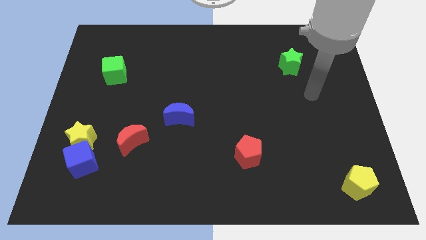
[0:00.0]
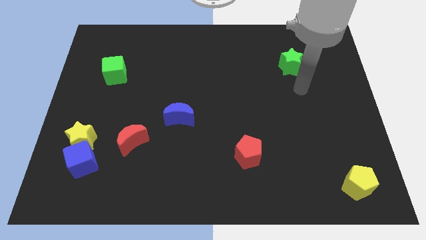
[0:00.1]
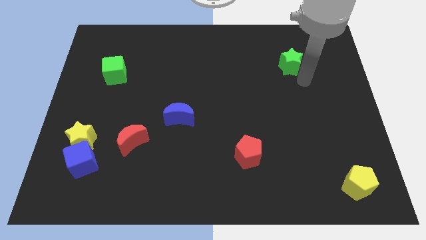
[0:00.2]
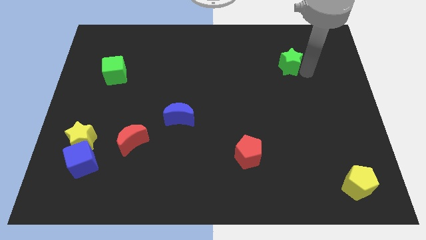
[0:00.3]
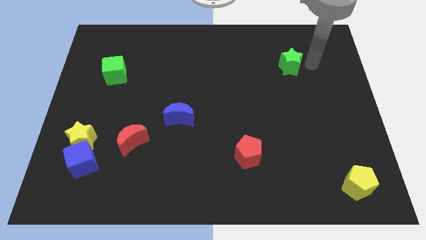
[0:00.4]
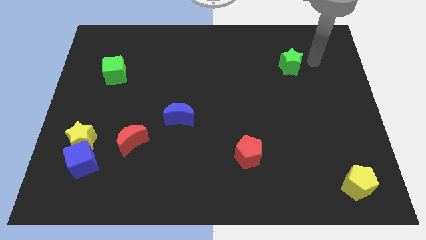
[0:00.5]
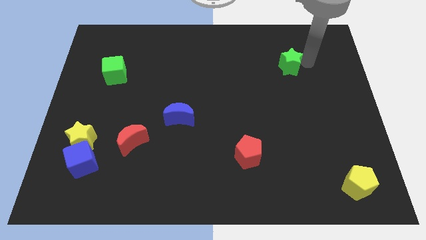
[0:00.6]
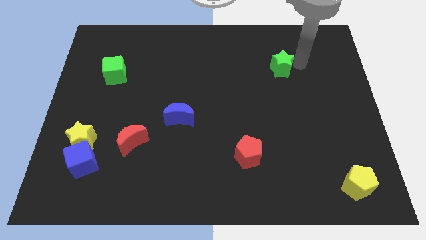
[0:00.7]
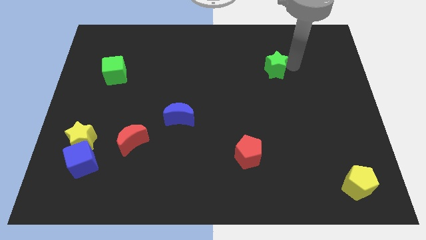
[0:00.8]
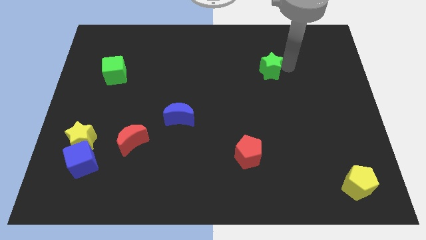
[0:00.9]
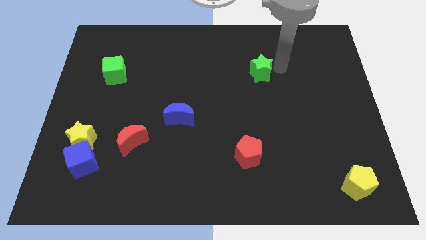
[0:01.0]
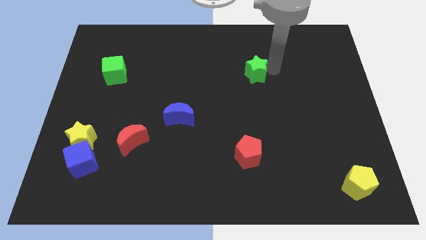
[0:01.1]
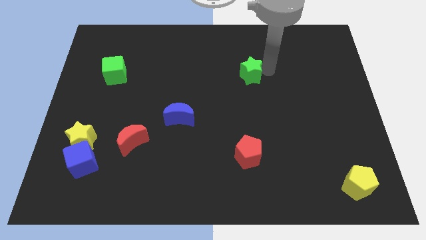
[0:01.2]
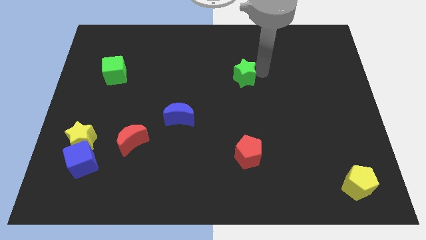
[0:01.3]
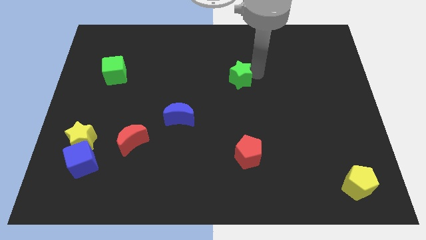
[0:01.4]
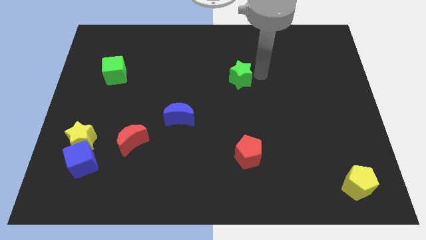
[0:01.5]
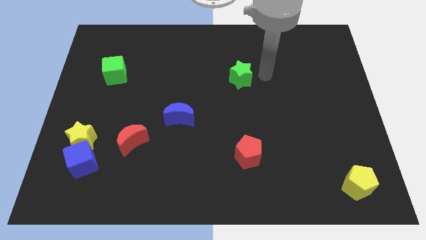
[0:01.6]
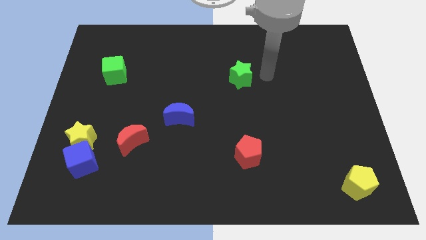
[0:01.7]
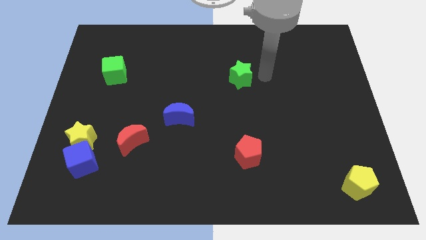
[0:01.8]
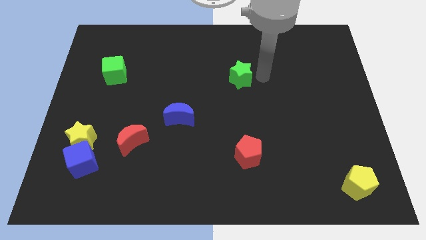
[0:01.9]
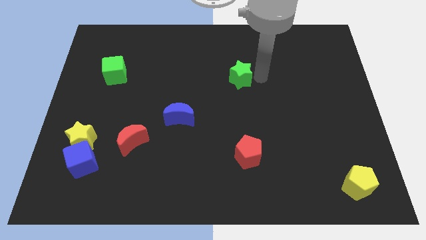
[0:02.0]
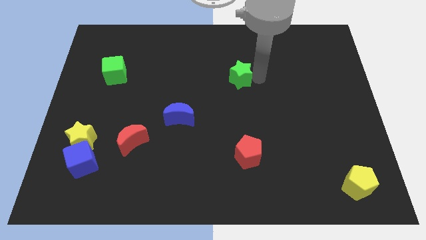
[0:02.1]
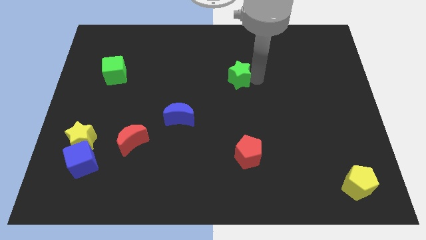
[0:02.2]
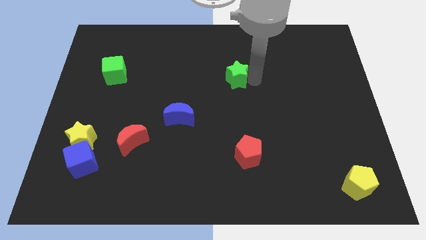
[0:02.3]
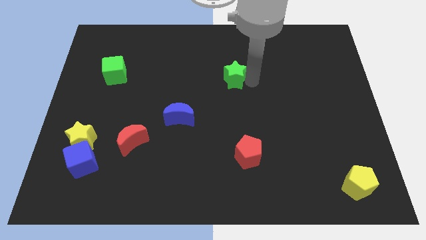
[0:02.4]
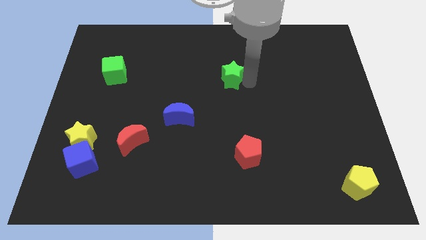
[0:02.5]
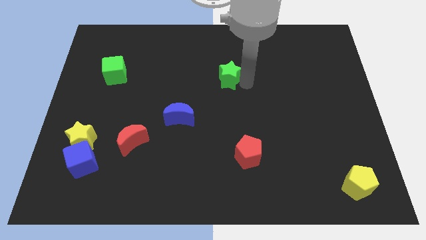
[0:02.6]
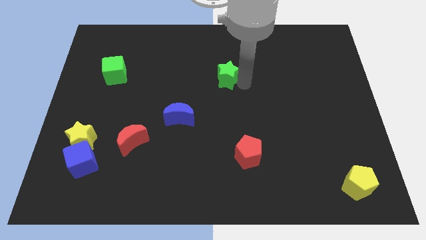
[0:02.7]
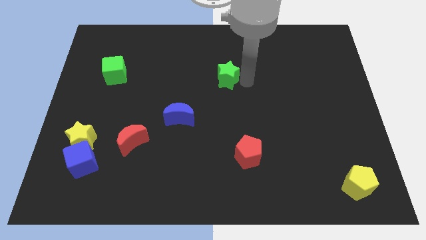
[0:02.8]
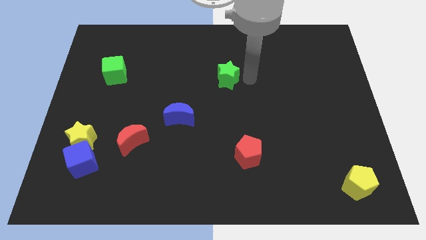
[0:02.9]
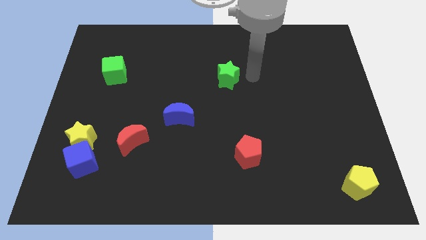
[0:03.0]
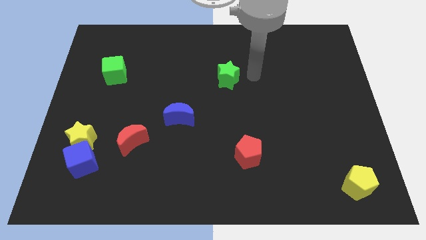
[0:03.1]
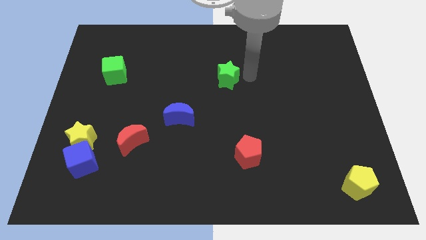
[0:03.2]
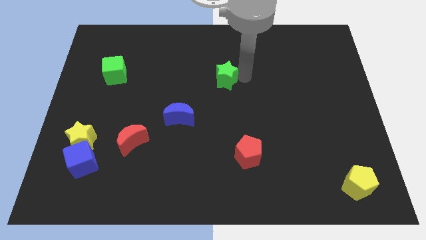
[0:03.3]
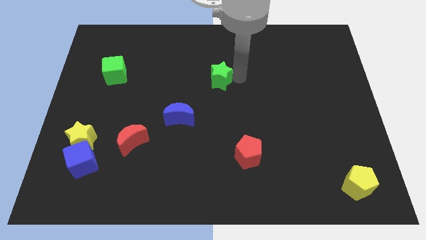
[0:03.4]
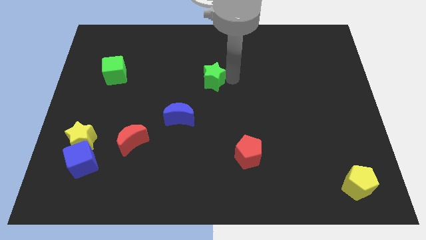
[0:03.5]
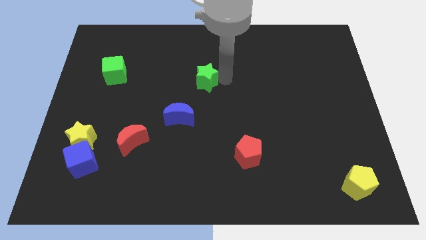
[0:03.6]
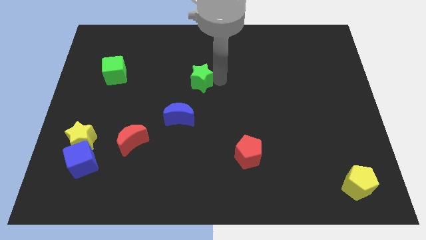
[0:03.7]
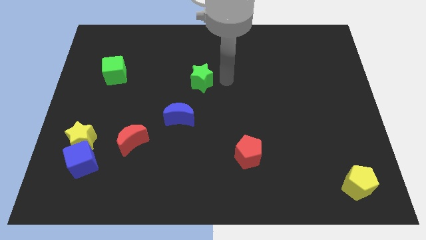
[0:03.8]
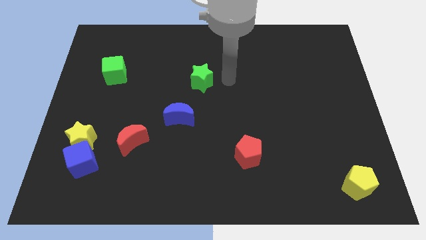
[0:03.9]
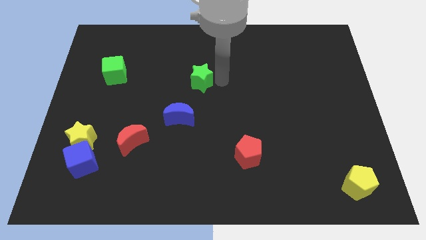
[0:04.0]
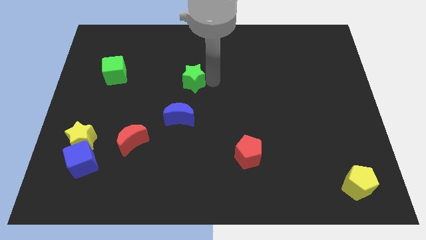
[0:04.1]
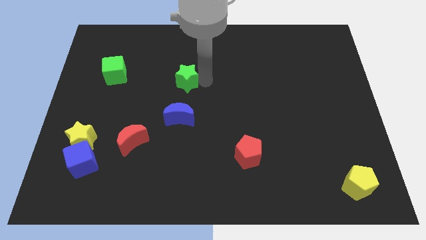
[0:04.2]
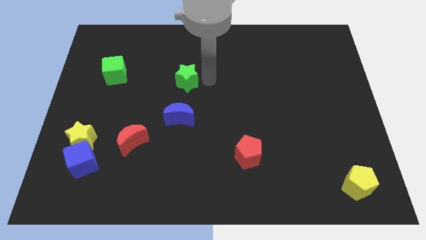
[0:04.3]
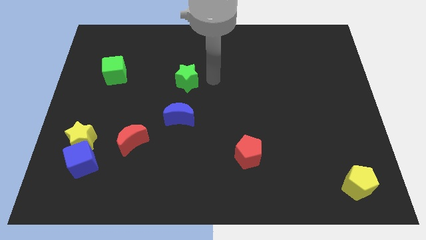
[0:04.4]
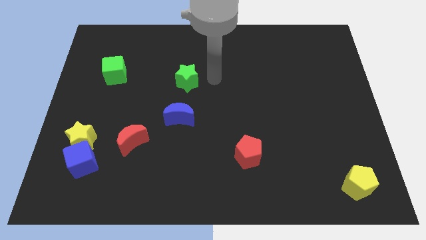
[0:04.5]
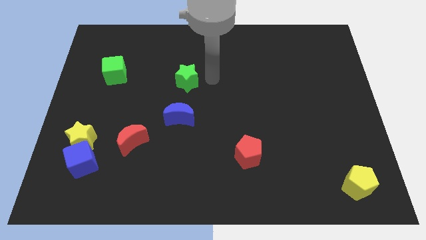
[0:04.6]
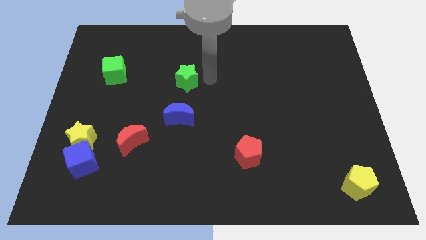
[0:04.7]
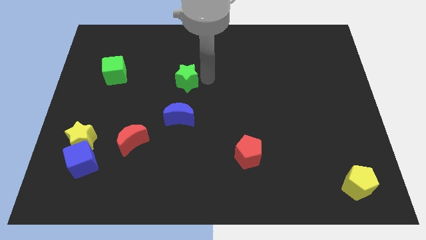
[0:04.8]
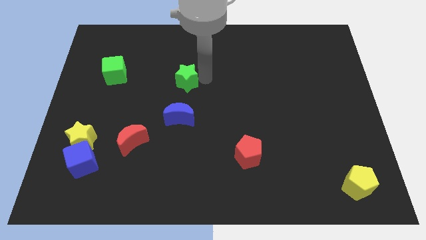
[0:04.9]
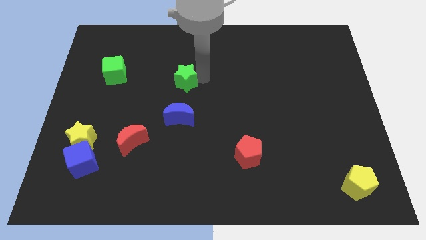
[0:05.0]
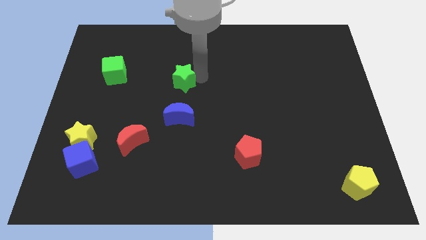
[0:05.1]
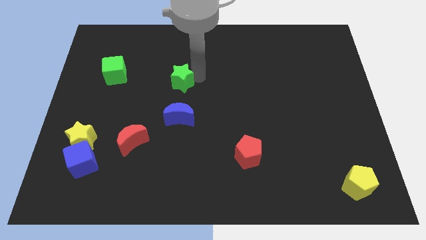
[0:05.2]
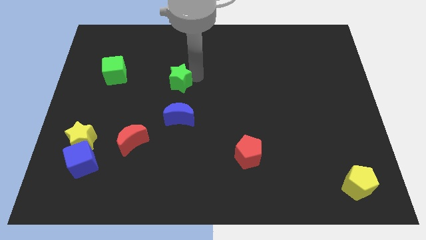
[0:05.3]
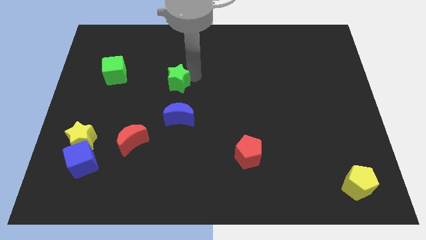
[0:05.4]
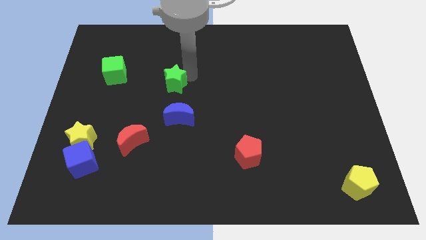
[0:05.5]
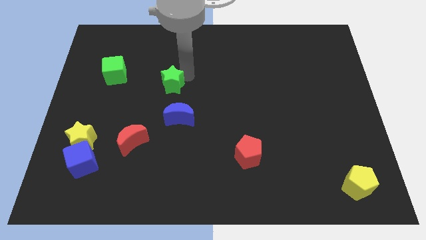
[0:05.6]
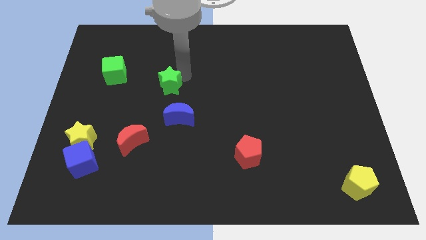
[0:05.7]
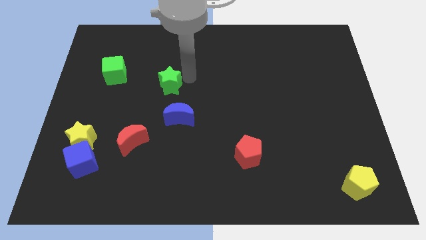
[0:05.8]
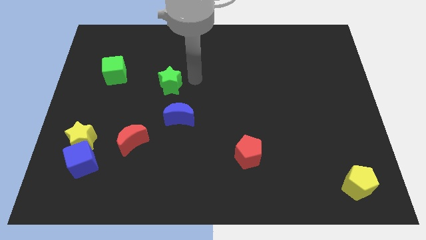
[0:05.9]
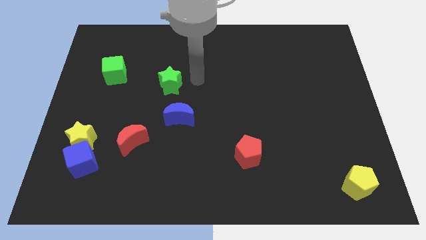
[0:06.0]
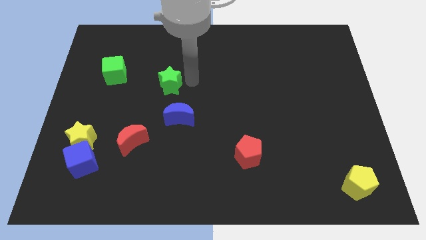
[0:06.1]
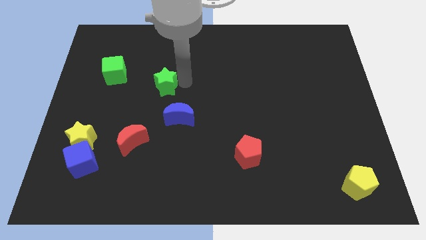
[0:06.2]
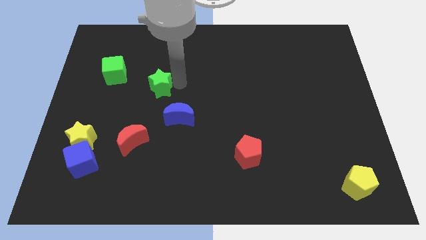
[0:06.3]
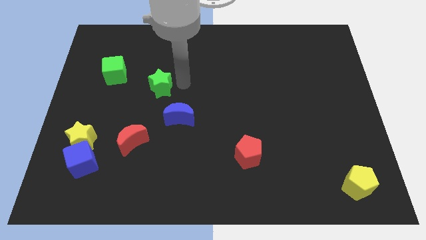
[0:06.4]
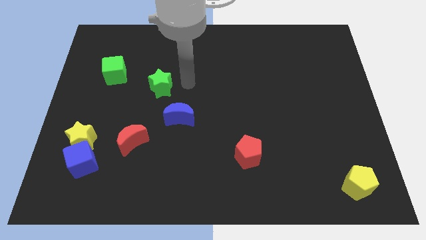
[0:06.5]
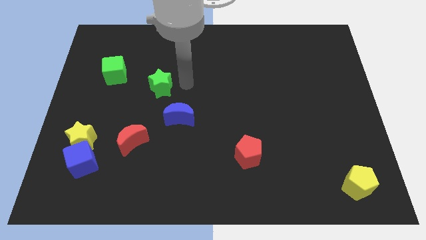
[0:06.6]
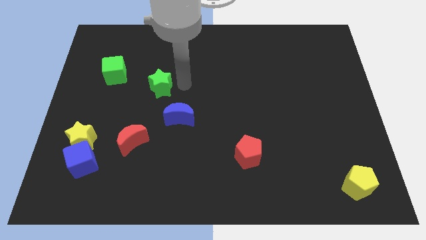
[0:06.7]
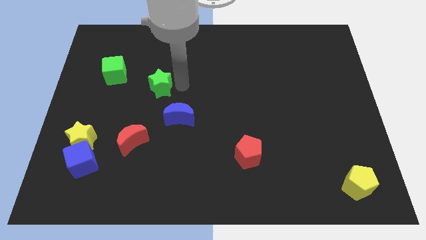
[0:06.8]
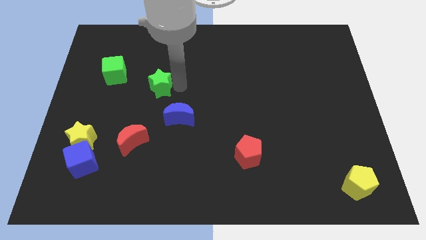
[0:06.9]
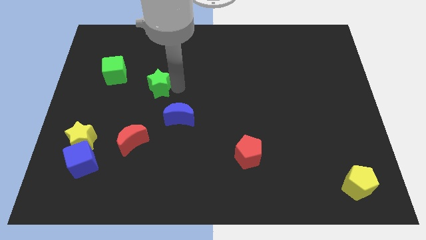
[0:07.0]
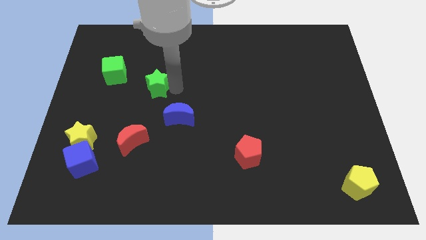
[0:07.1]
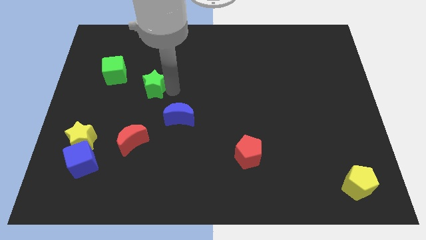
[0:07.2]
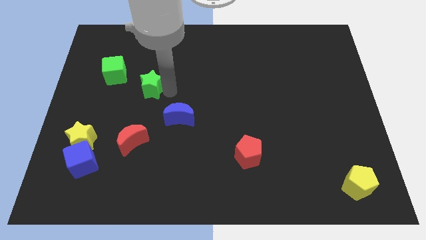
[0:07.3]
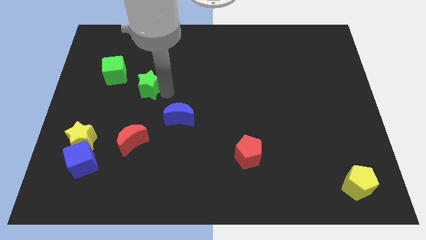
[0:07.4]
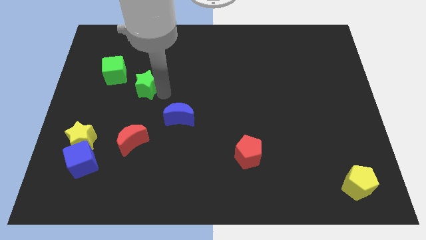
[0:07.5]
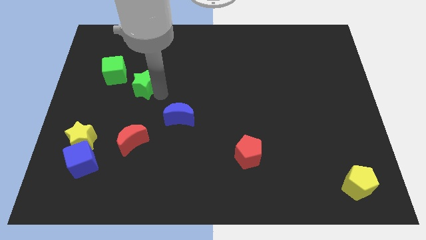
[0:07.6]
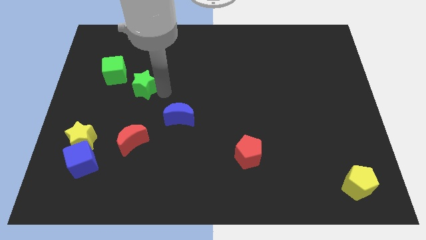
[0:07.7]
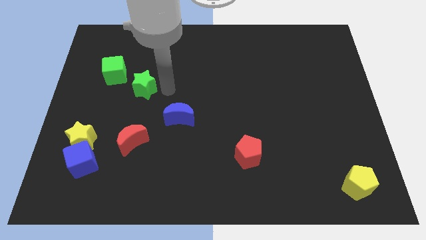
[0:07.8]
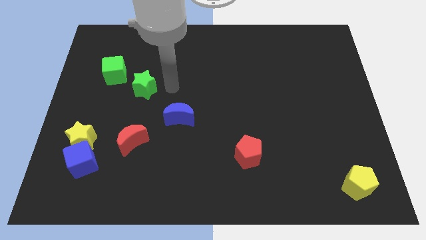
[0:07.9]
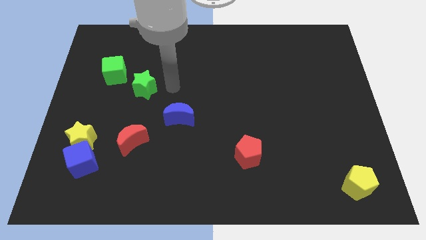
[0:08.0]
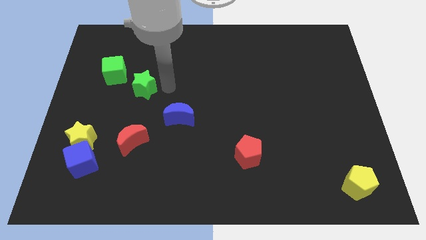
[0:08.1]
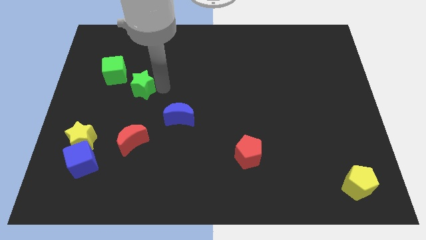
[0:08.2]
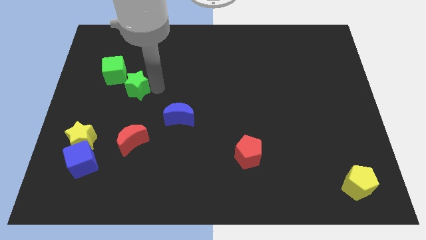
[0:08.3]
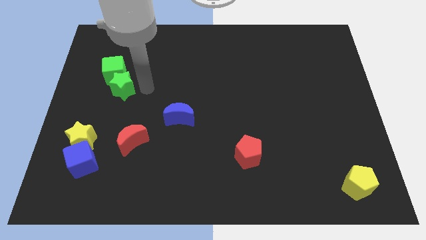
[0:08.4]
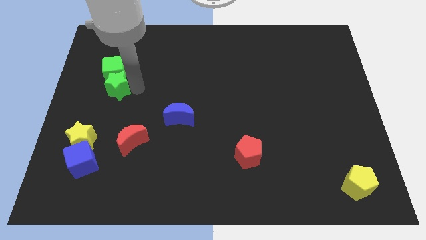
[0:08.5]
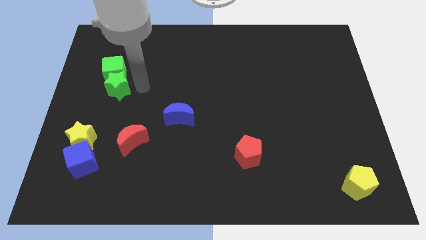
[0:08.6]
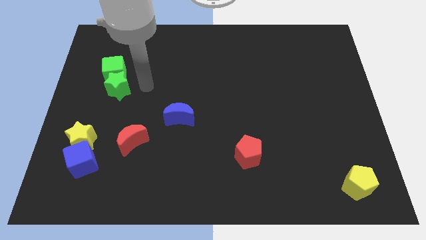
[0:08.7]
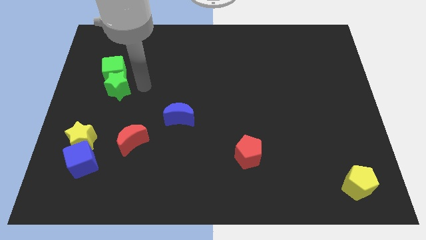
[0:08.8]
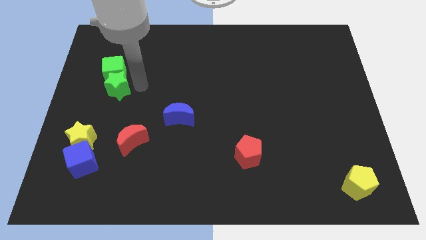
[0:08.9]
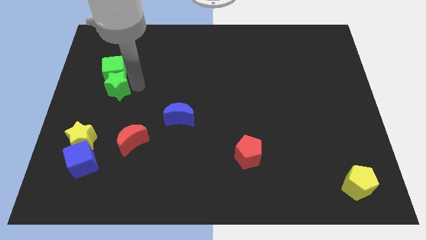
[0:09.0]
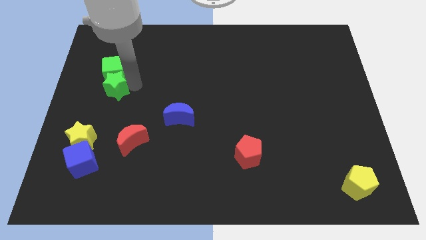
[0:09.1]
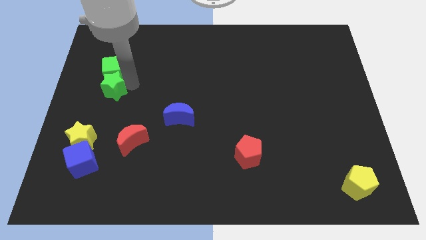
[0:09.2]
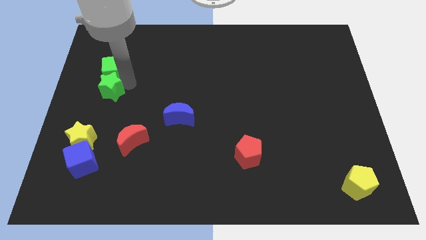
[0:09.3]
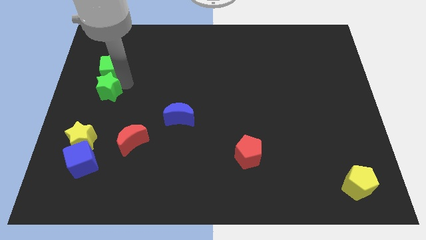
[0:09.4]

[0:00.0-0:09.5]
put the green star to the left side of the board
